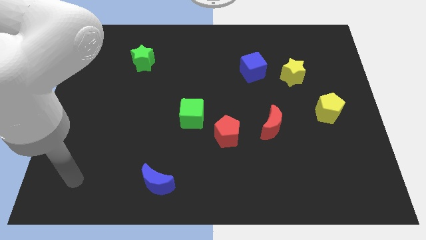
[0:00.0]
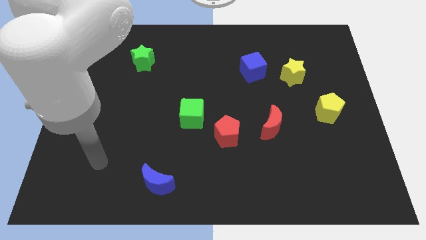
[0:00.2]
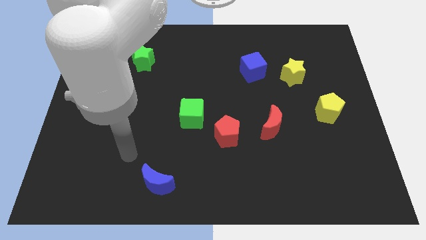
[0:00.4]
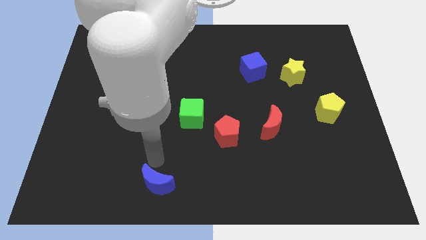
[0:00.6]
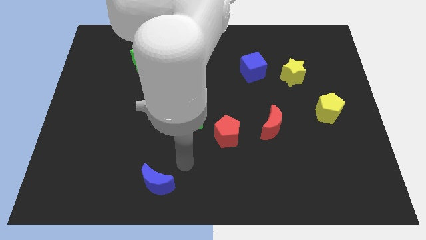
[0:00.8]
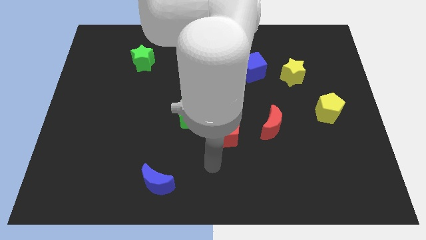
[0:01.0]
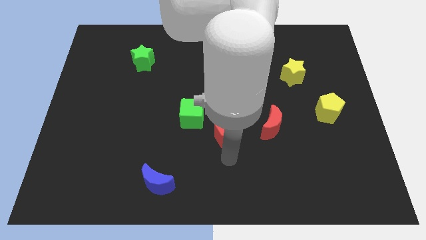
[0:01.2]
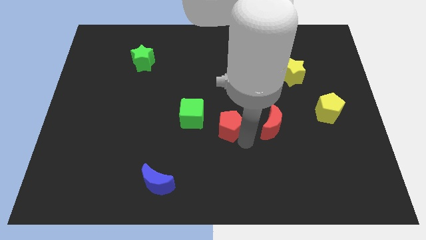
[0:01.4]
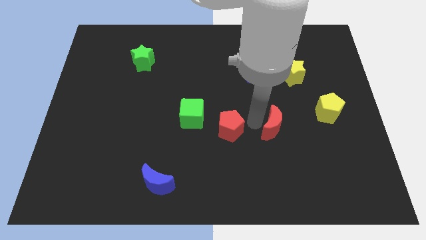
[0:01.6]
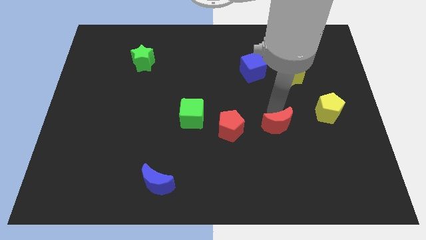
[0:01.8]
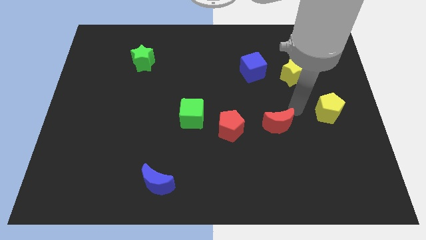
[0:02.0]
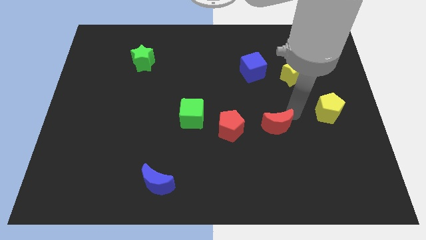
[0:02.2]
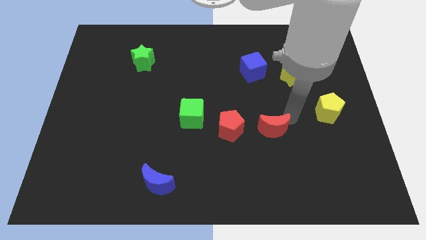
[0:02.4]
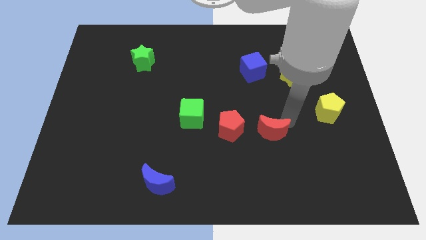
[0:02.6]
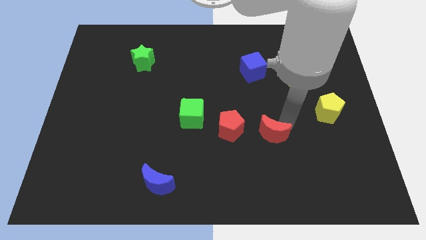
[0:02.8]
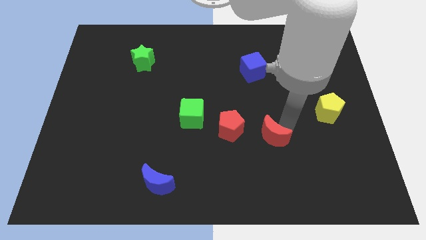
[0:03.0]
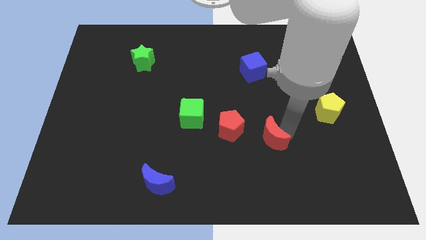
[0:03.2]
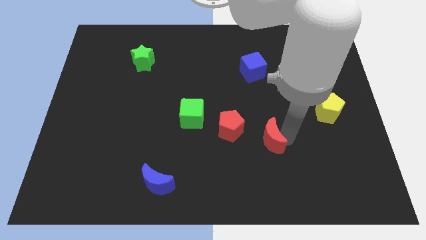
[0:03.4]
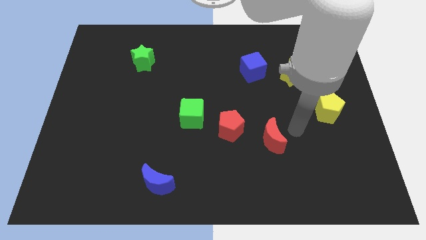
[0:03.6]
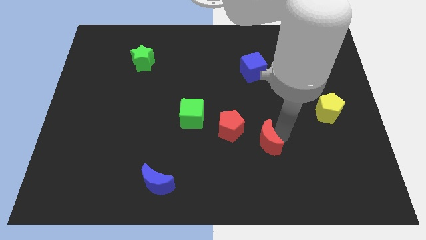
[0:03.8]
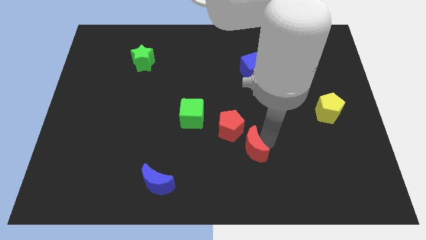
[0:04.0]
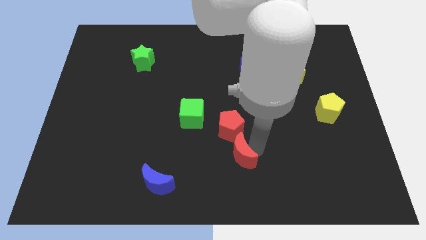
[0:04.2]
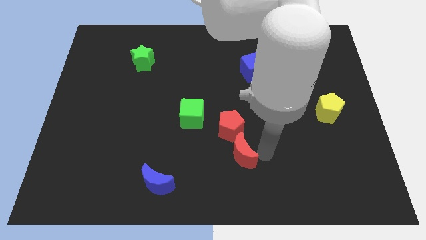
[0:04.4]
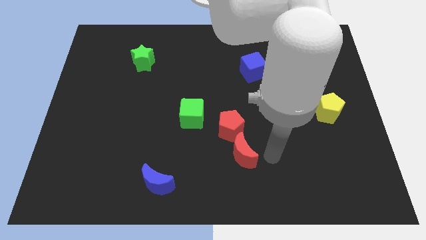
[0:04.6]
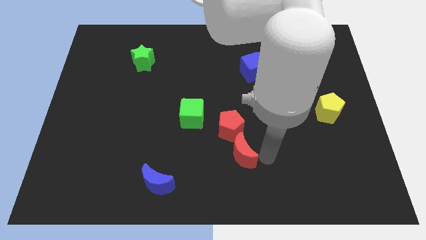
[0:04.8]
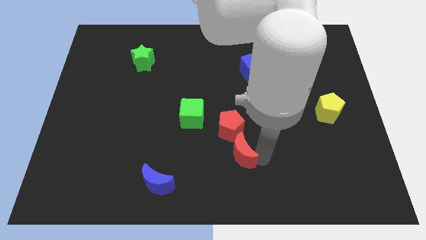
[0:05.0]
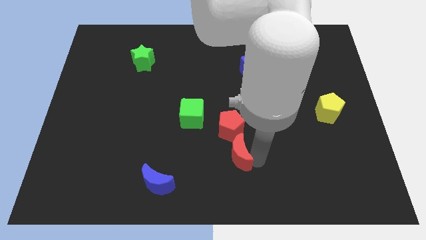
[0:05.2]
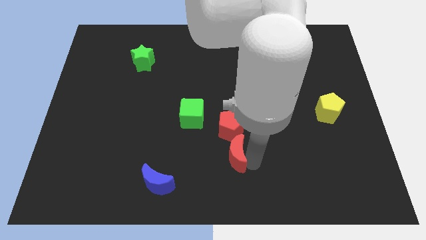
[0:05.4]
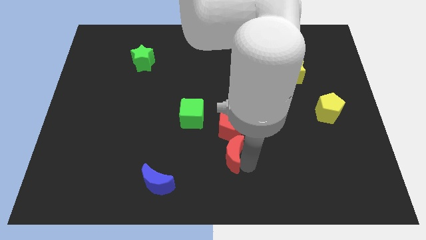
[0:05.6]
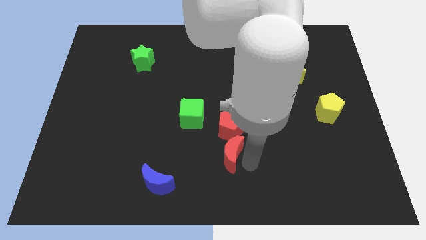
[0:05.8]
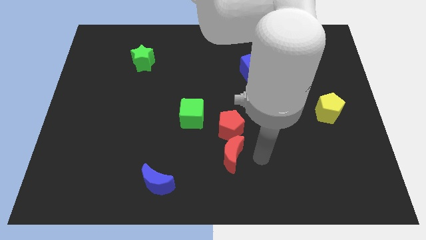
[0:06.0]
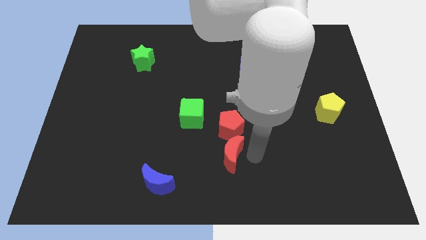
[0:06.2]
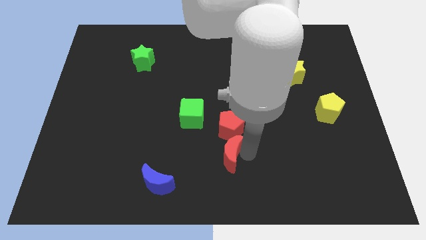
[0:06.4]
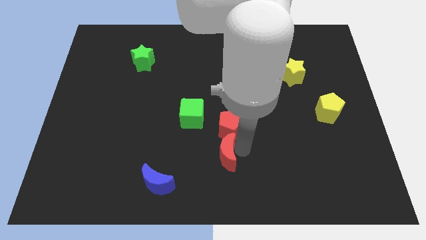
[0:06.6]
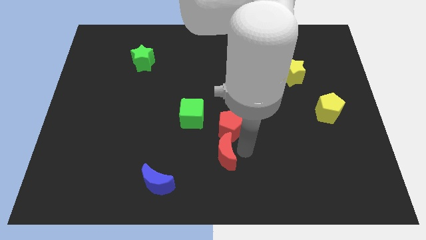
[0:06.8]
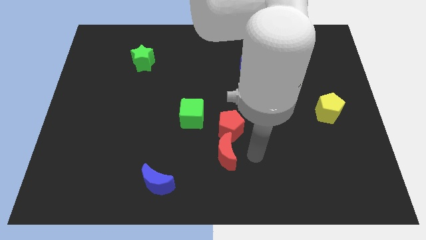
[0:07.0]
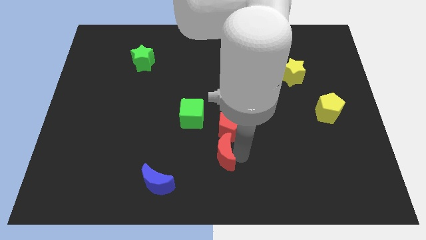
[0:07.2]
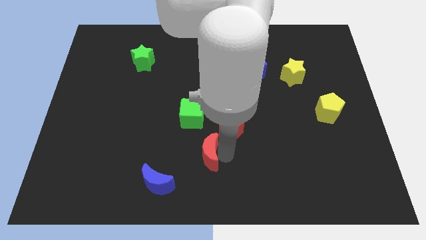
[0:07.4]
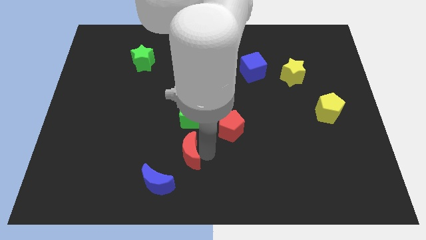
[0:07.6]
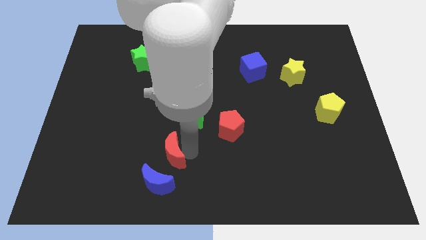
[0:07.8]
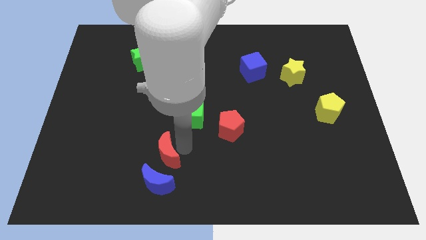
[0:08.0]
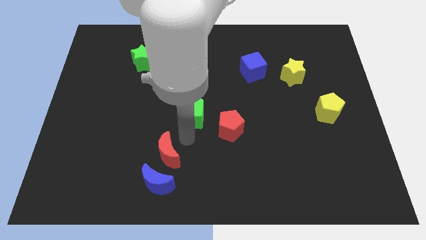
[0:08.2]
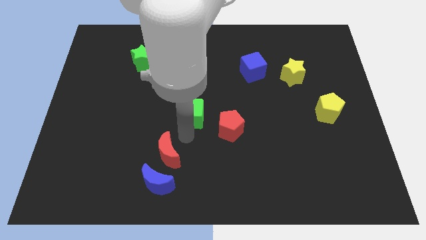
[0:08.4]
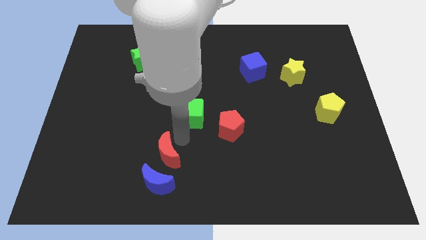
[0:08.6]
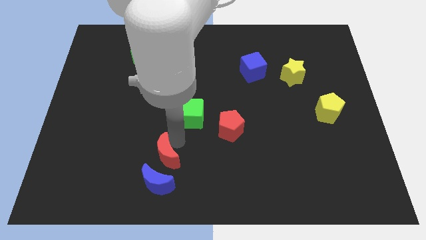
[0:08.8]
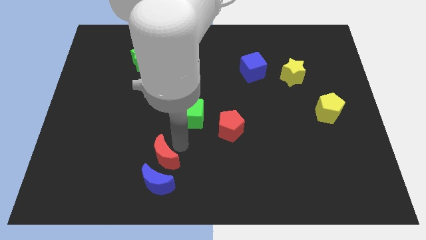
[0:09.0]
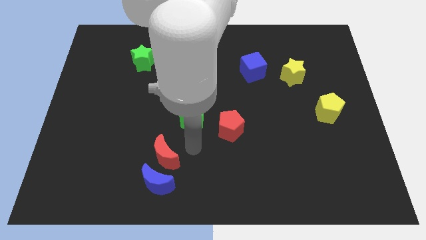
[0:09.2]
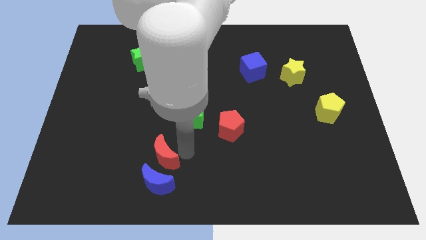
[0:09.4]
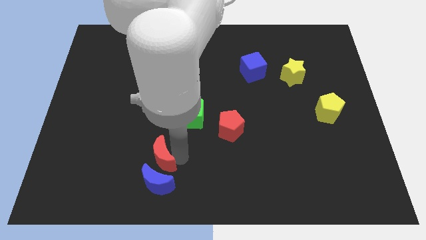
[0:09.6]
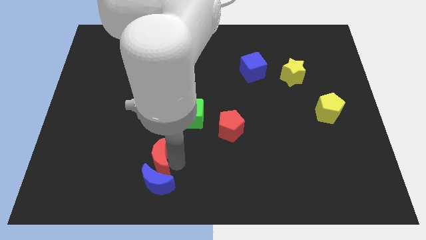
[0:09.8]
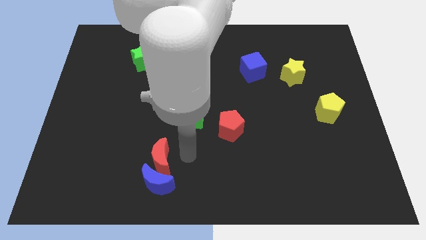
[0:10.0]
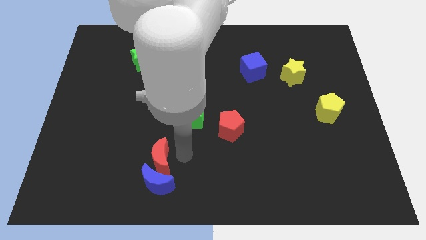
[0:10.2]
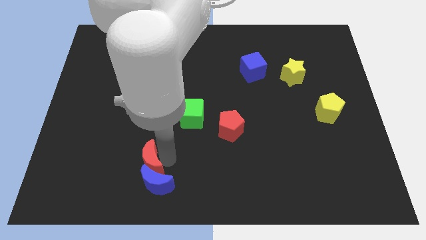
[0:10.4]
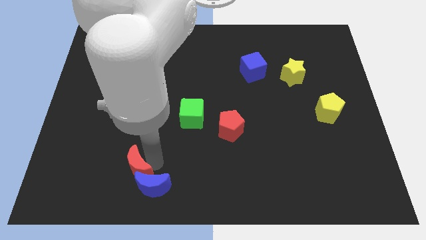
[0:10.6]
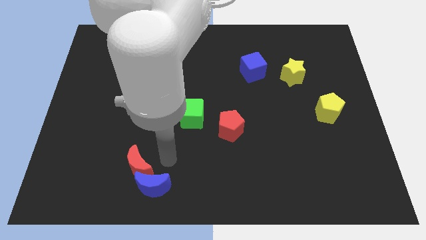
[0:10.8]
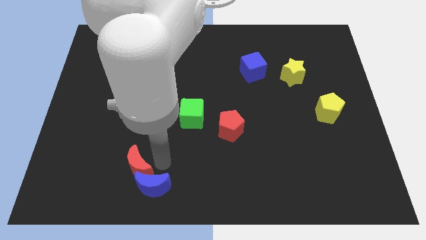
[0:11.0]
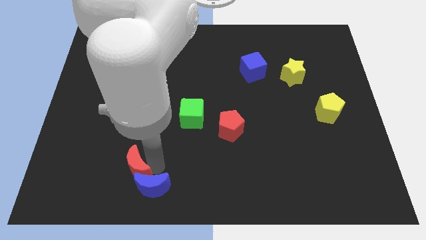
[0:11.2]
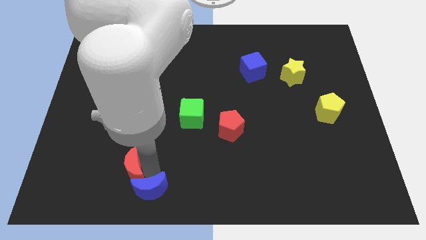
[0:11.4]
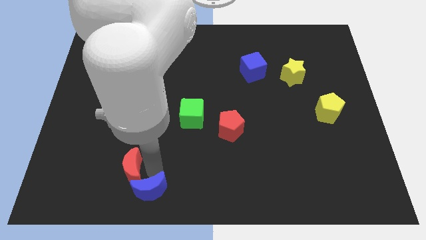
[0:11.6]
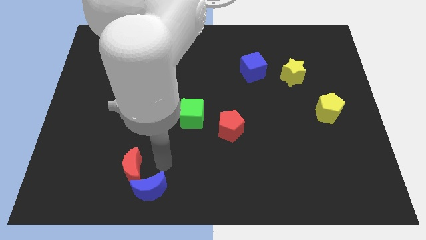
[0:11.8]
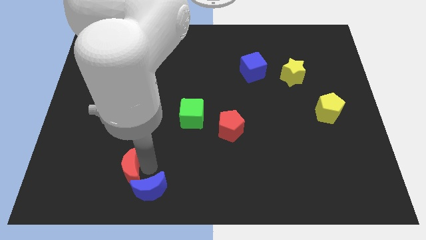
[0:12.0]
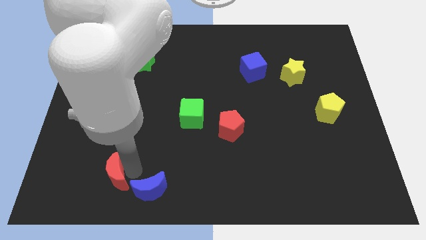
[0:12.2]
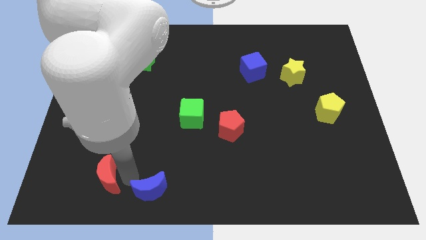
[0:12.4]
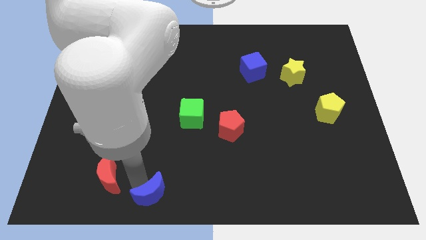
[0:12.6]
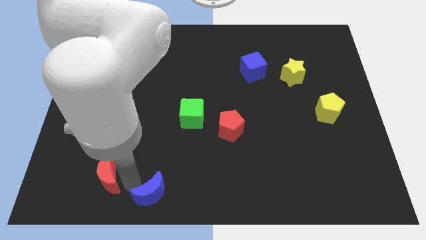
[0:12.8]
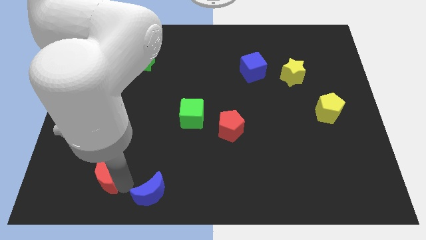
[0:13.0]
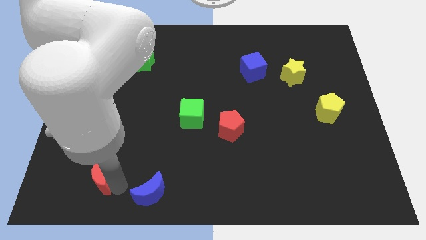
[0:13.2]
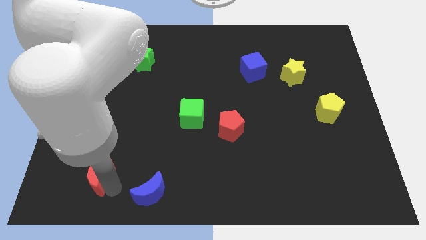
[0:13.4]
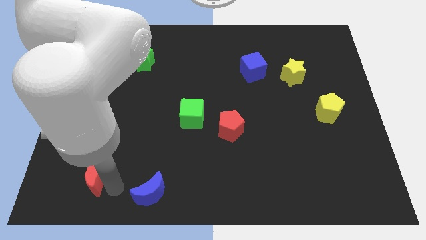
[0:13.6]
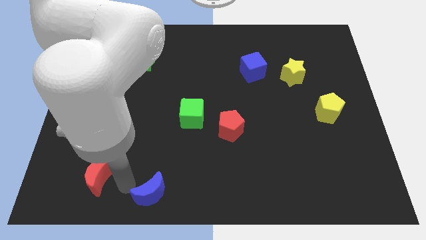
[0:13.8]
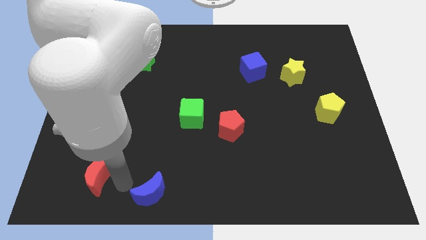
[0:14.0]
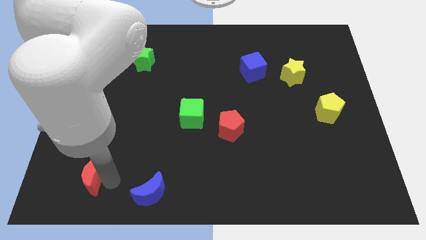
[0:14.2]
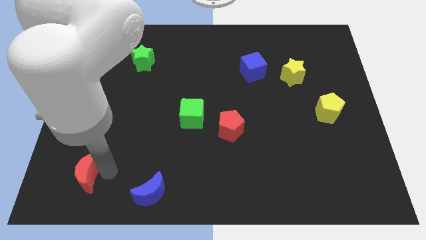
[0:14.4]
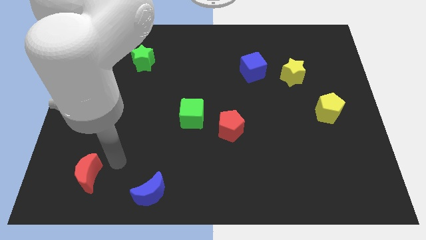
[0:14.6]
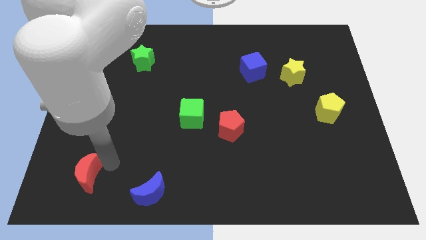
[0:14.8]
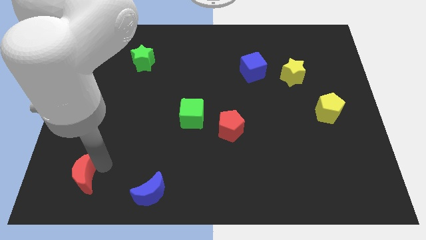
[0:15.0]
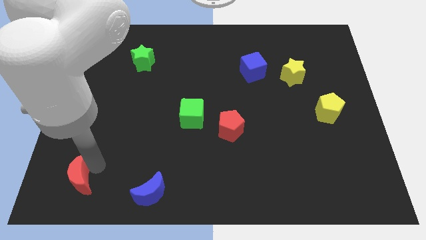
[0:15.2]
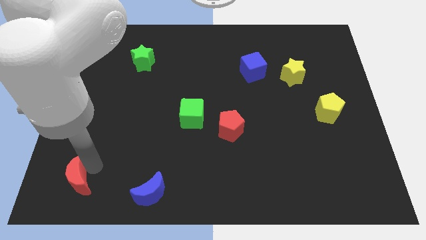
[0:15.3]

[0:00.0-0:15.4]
slide the red moon to the lower left corner
